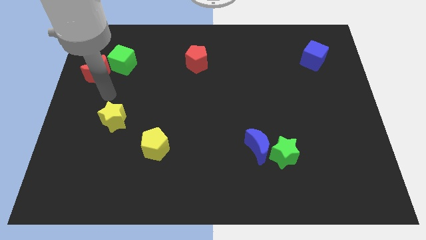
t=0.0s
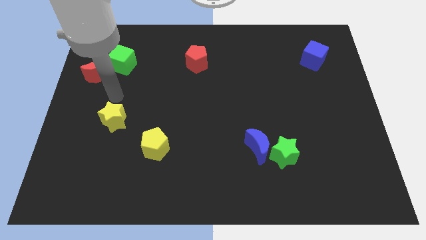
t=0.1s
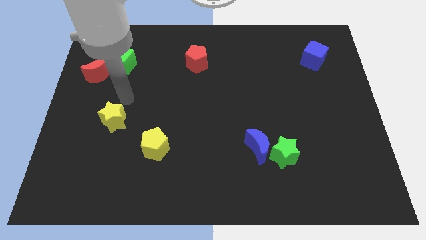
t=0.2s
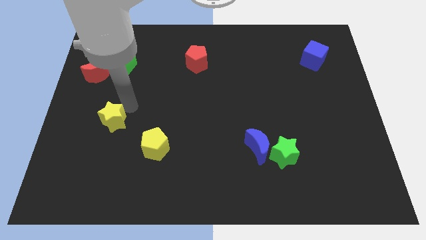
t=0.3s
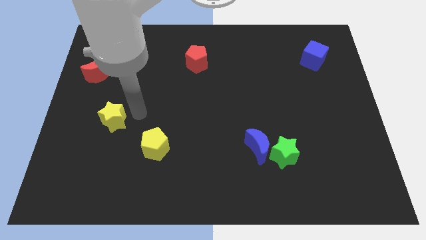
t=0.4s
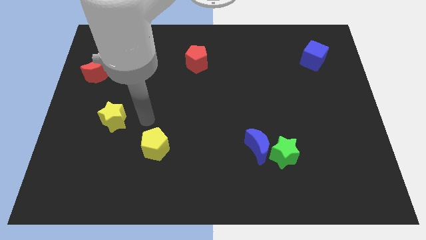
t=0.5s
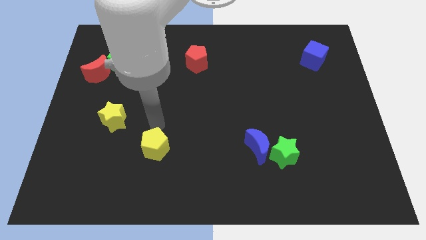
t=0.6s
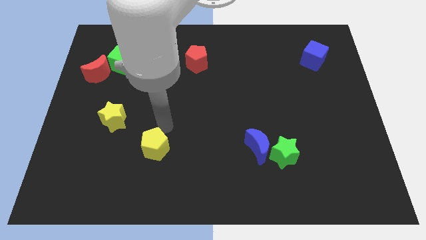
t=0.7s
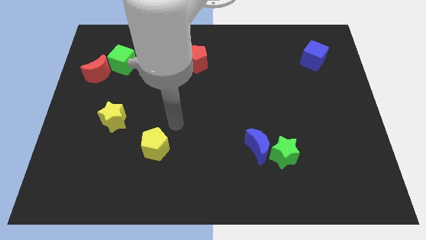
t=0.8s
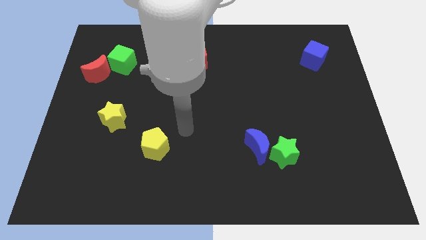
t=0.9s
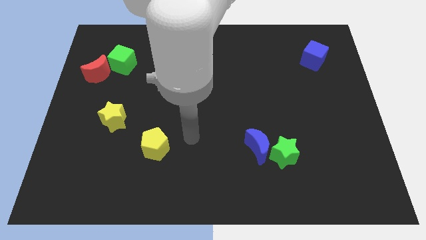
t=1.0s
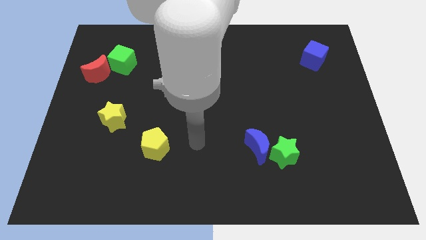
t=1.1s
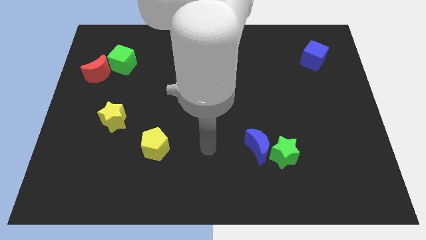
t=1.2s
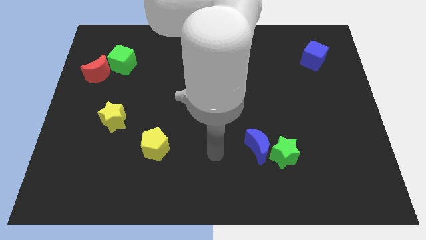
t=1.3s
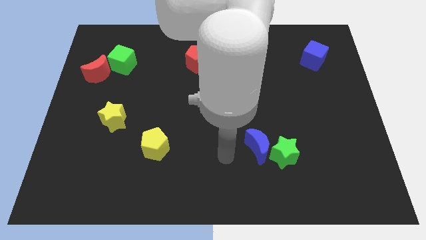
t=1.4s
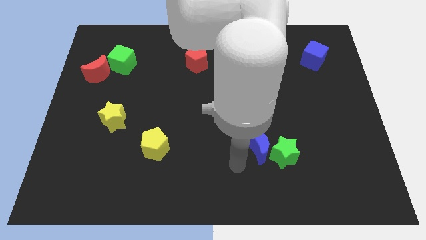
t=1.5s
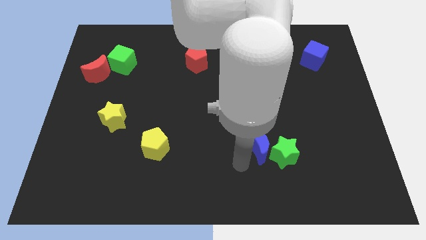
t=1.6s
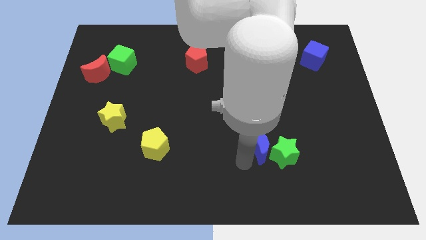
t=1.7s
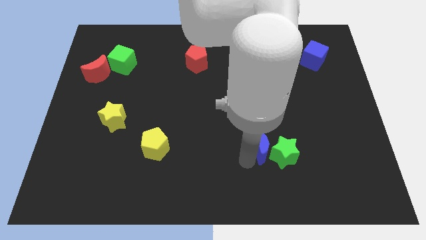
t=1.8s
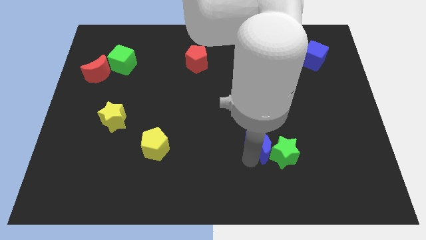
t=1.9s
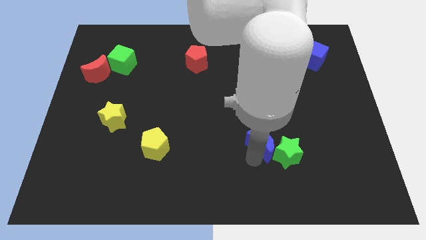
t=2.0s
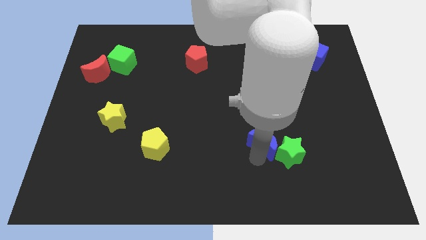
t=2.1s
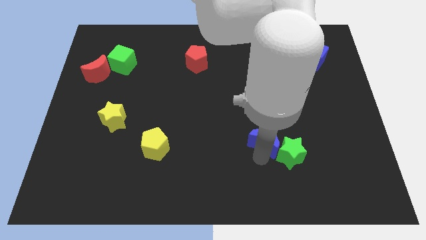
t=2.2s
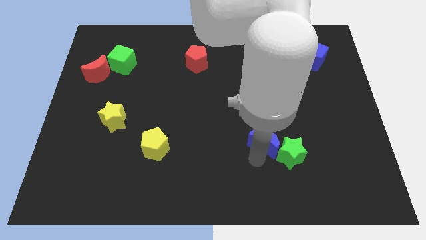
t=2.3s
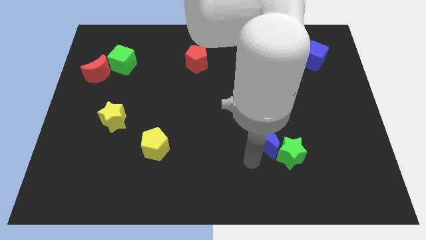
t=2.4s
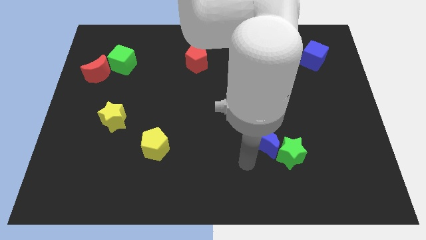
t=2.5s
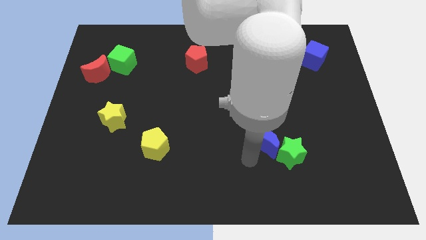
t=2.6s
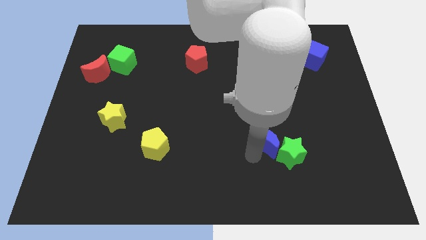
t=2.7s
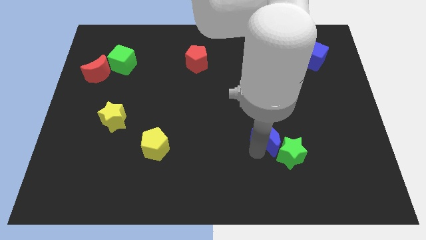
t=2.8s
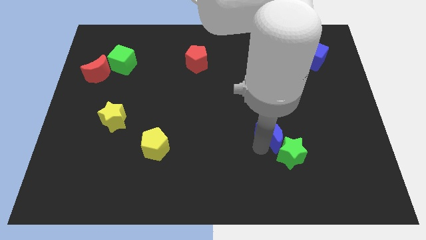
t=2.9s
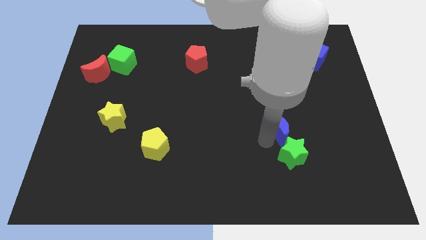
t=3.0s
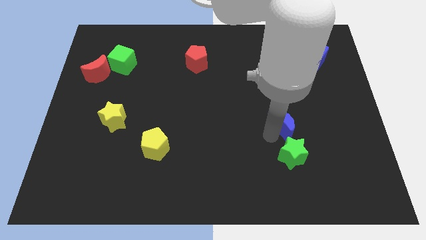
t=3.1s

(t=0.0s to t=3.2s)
slide the blue moon up and then right slightly

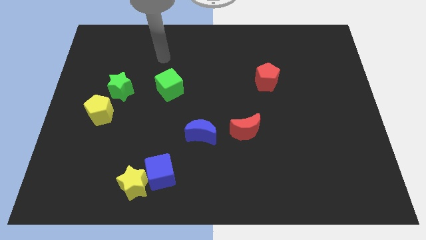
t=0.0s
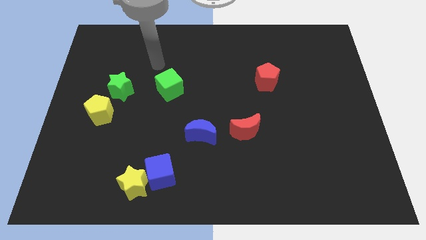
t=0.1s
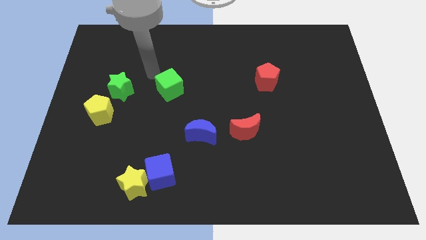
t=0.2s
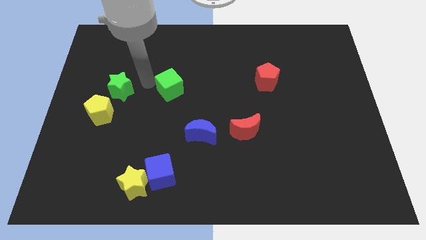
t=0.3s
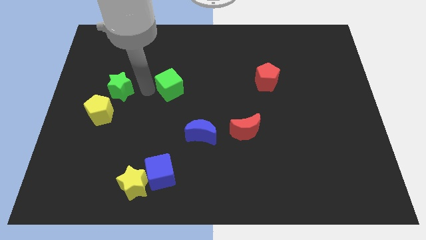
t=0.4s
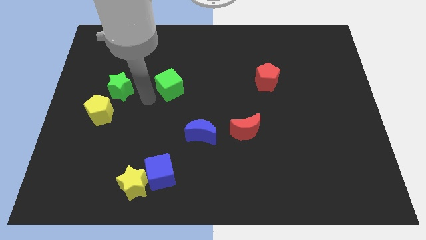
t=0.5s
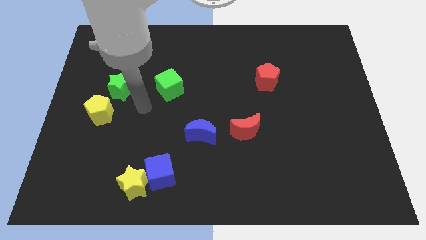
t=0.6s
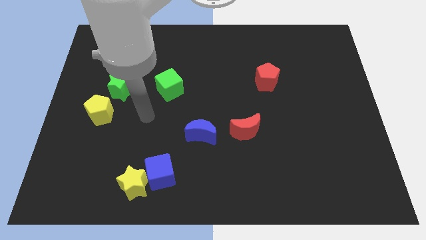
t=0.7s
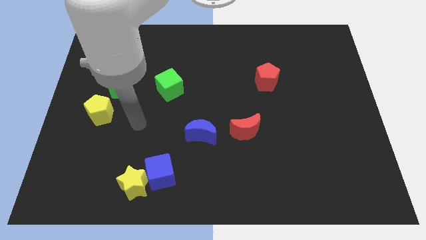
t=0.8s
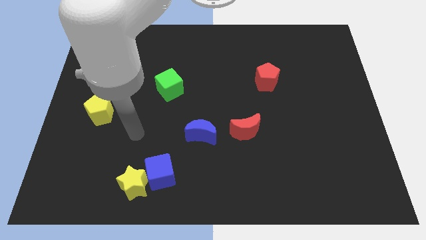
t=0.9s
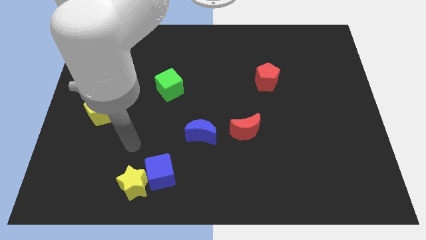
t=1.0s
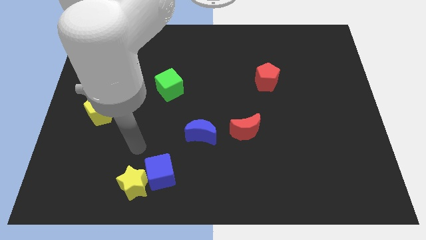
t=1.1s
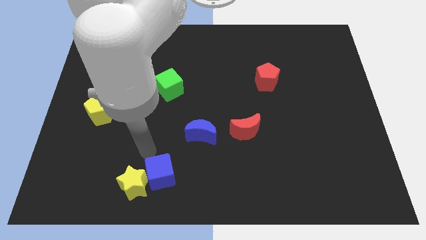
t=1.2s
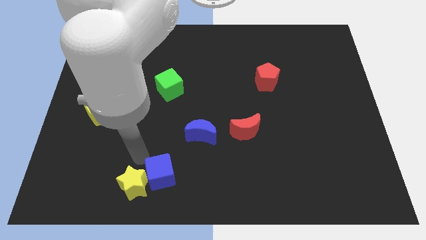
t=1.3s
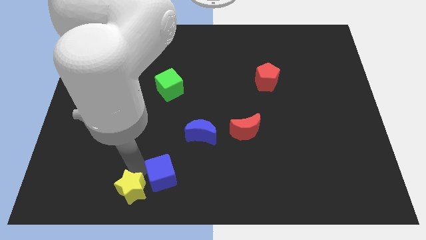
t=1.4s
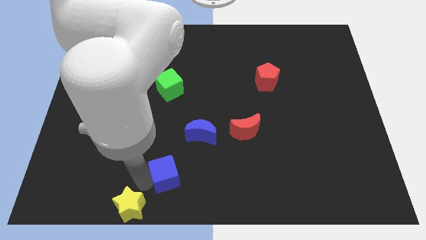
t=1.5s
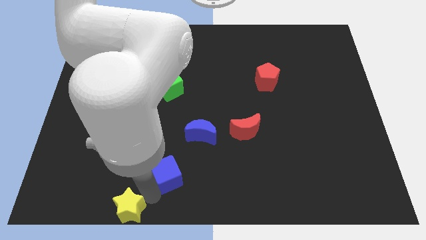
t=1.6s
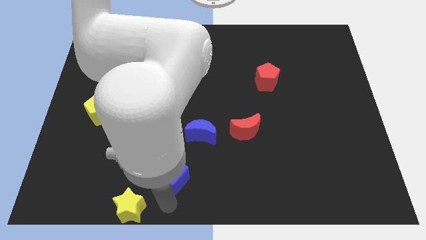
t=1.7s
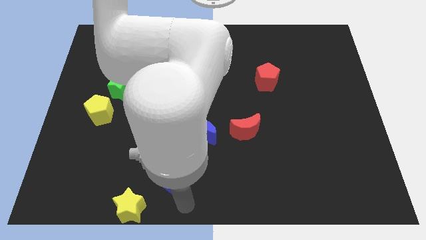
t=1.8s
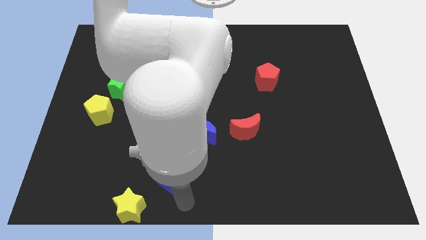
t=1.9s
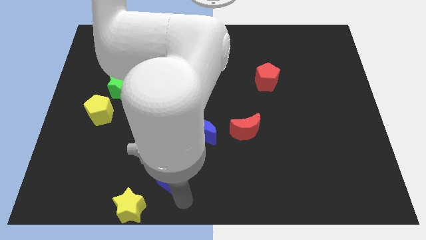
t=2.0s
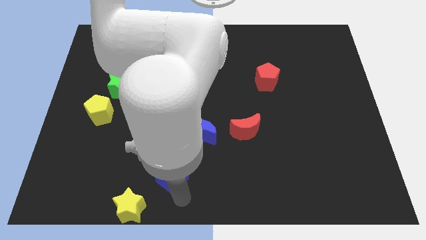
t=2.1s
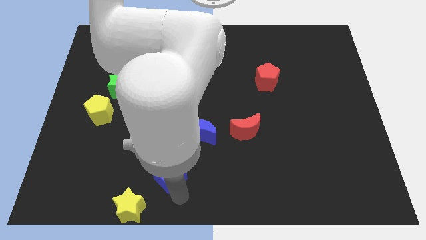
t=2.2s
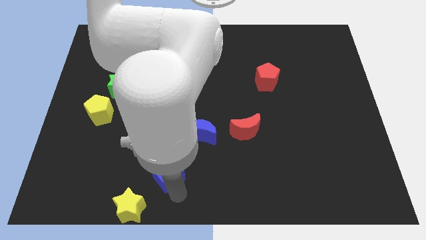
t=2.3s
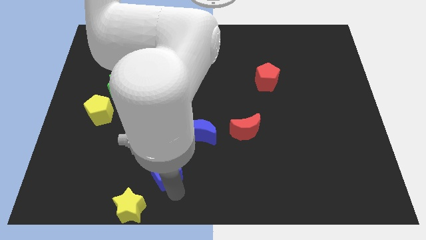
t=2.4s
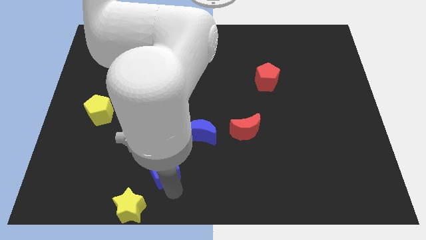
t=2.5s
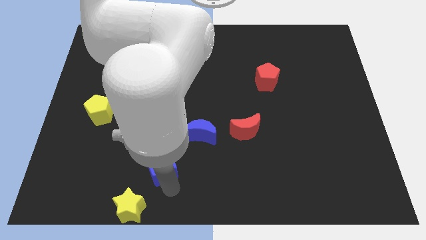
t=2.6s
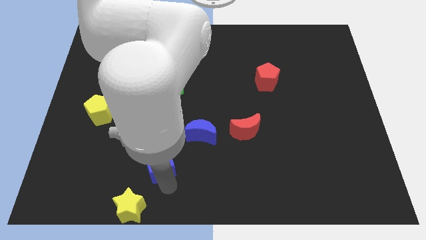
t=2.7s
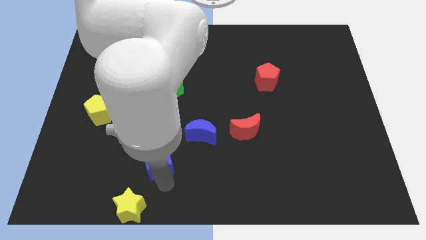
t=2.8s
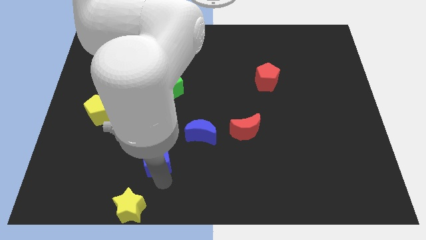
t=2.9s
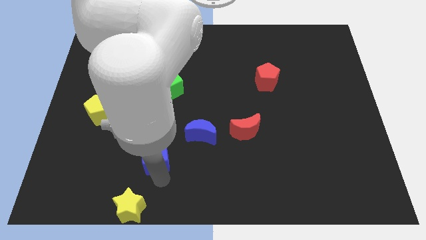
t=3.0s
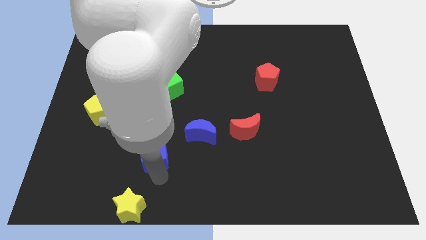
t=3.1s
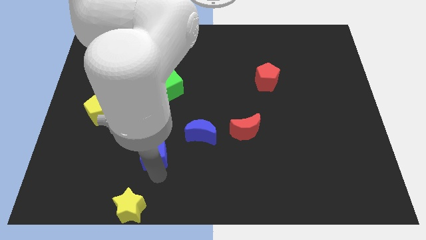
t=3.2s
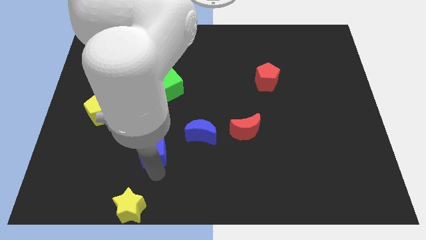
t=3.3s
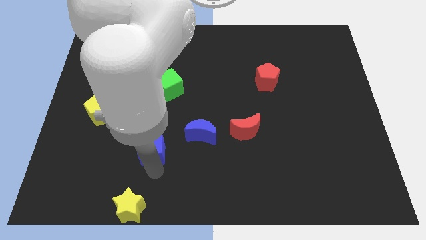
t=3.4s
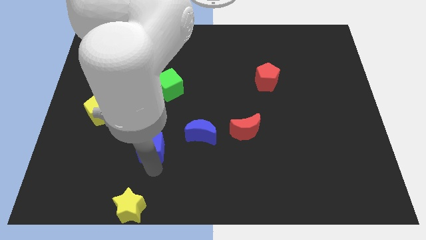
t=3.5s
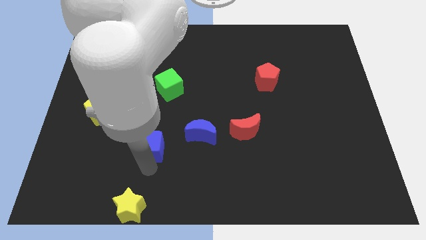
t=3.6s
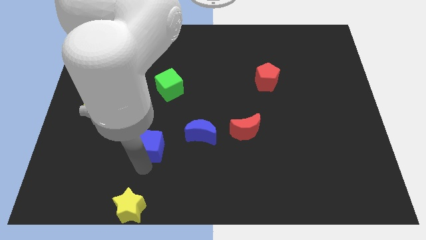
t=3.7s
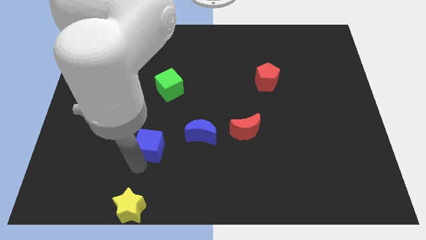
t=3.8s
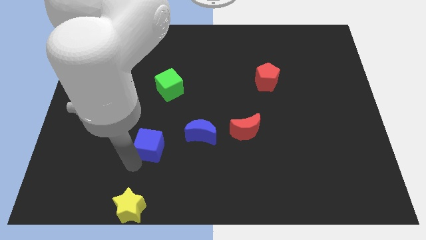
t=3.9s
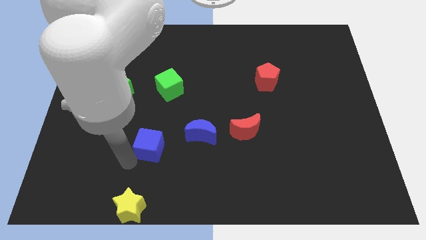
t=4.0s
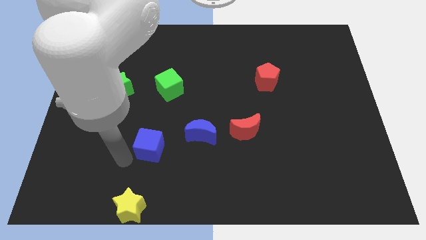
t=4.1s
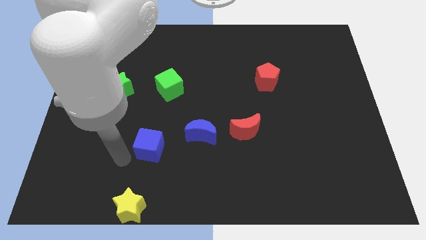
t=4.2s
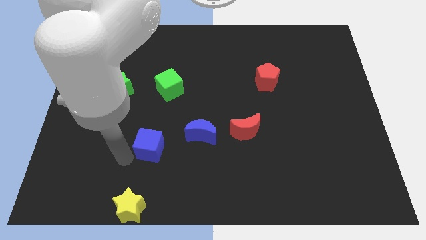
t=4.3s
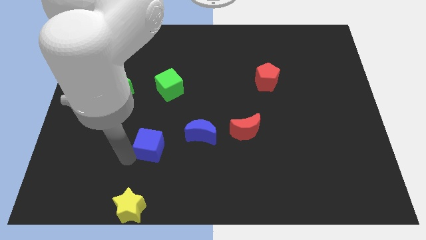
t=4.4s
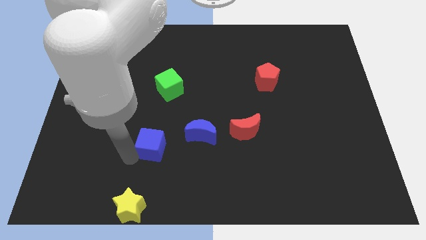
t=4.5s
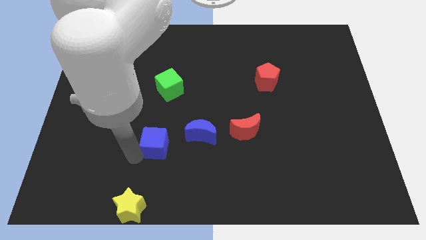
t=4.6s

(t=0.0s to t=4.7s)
slightly slide the blue cube up

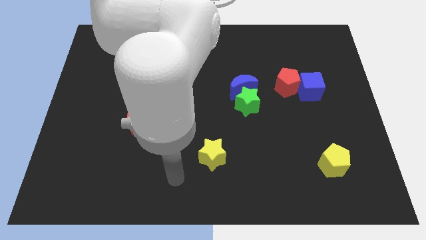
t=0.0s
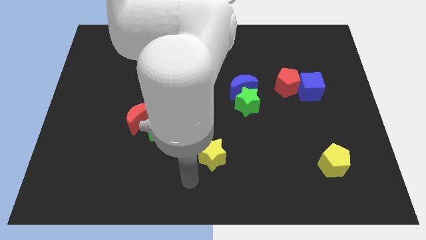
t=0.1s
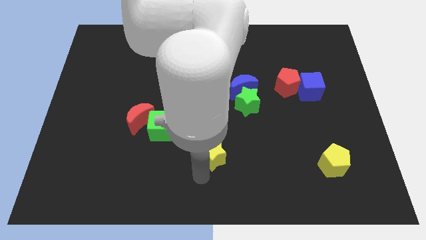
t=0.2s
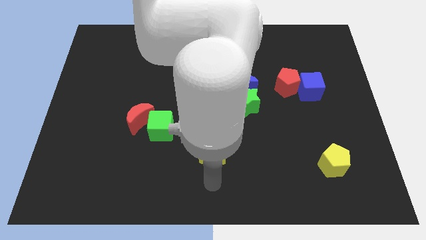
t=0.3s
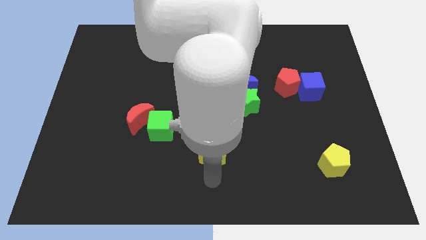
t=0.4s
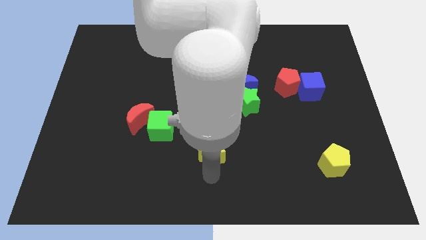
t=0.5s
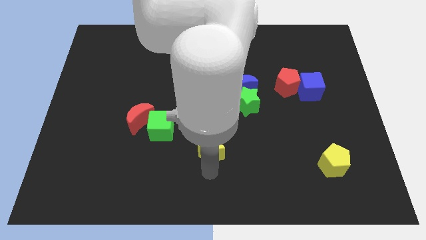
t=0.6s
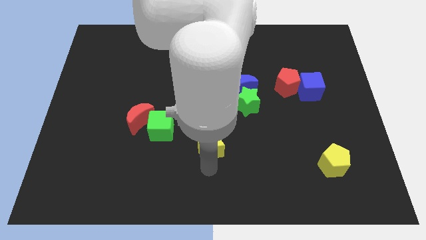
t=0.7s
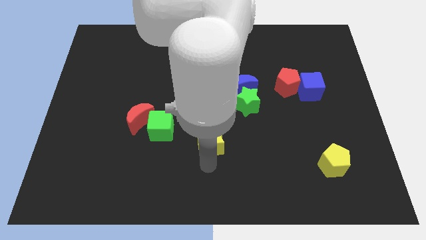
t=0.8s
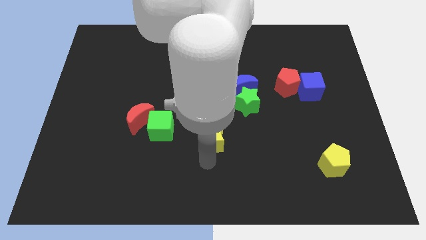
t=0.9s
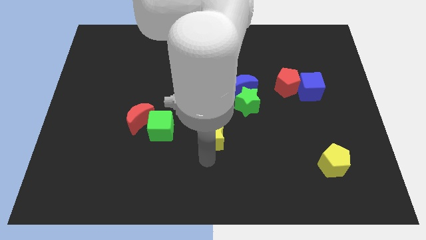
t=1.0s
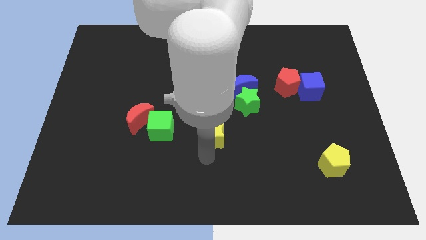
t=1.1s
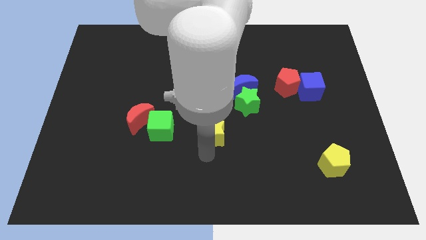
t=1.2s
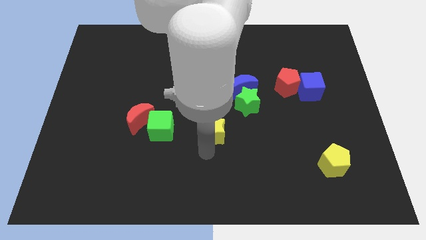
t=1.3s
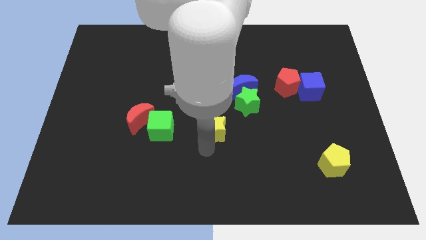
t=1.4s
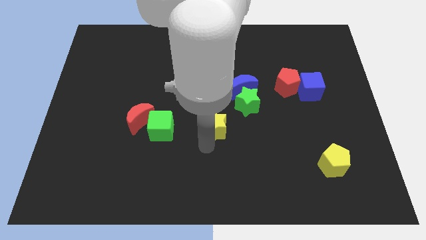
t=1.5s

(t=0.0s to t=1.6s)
slightly push the yellow star up
